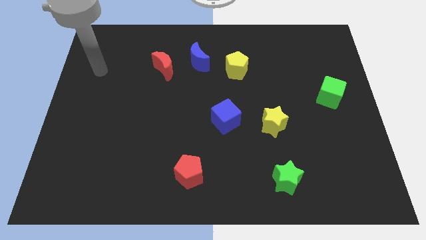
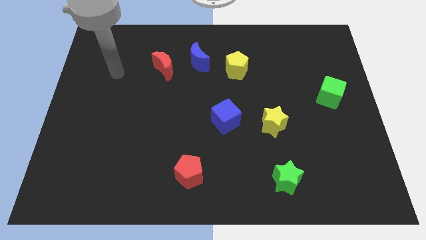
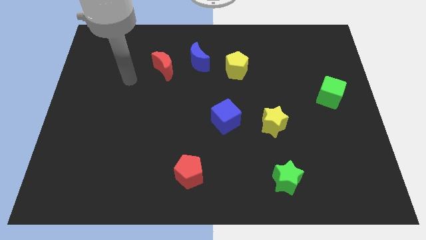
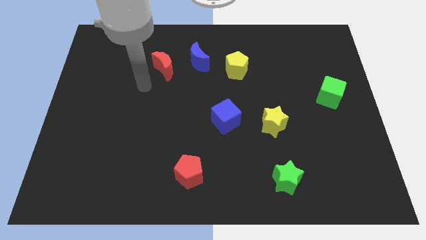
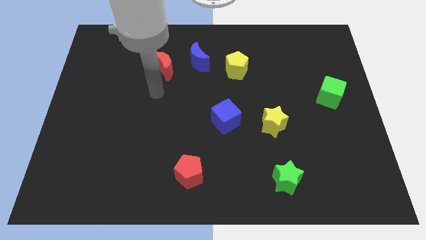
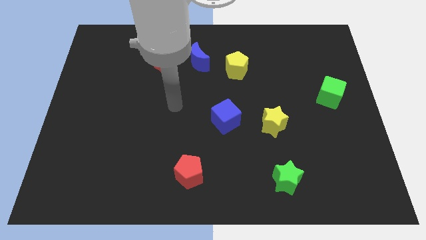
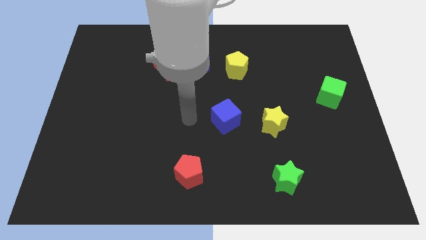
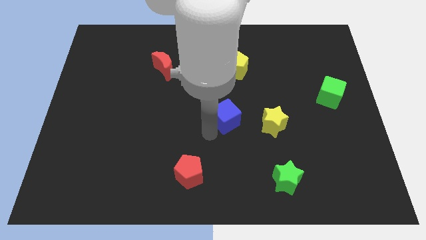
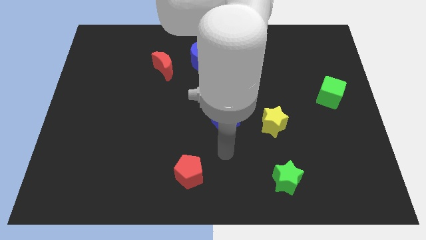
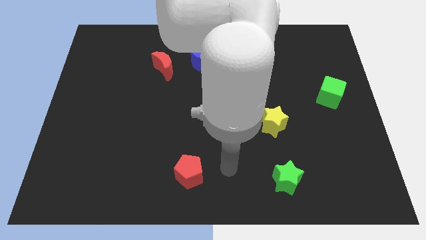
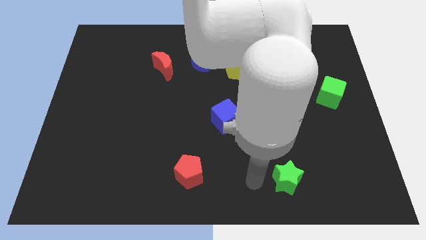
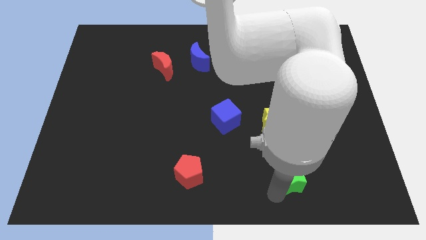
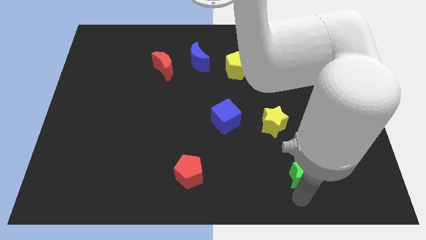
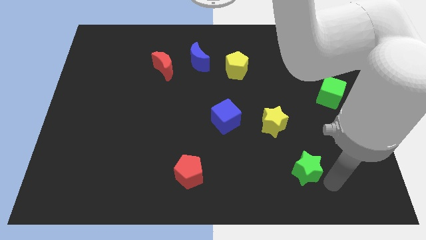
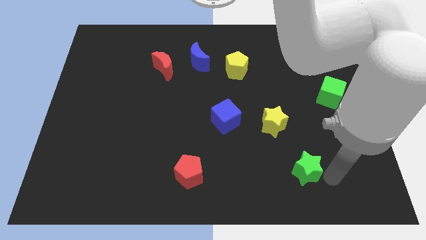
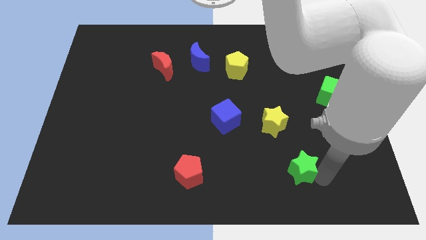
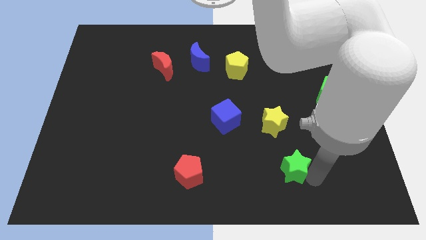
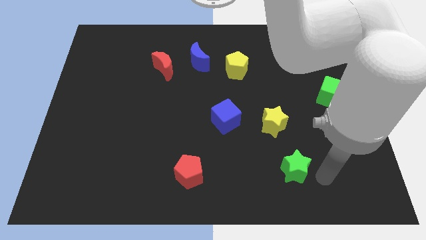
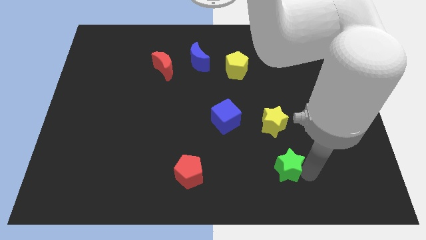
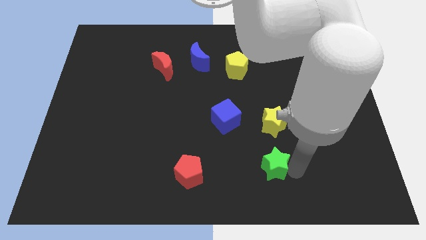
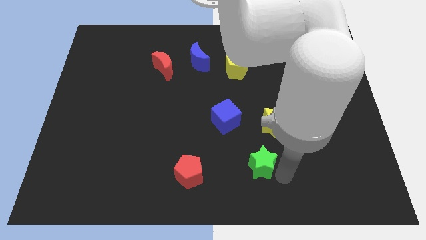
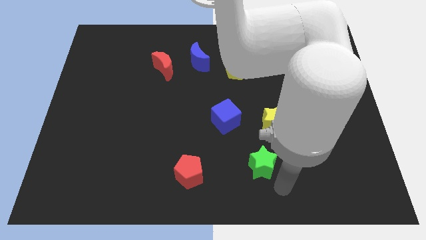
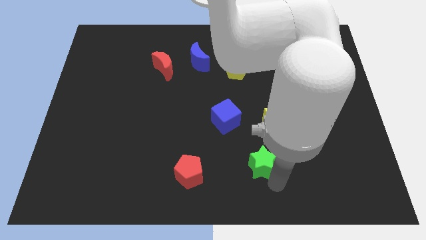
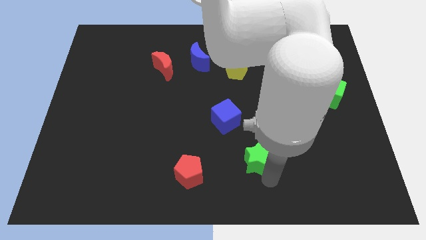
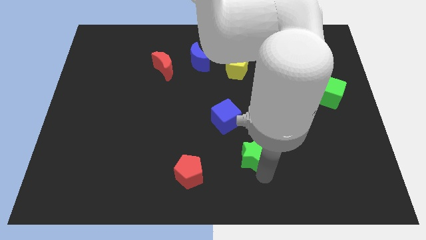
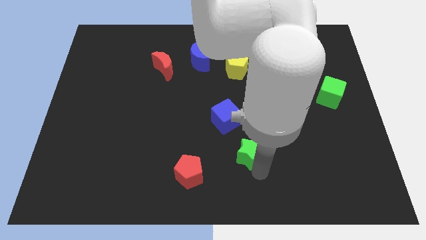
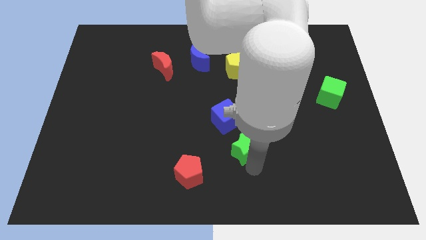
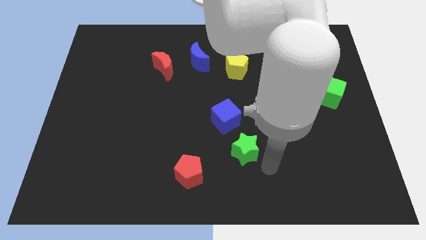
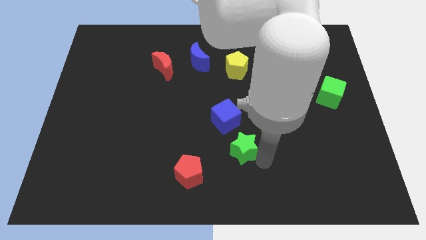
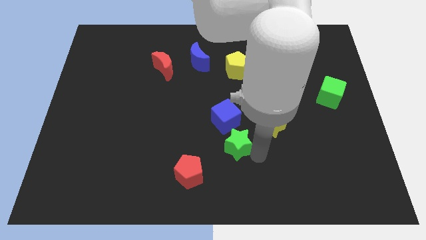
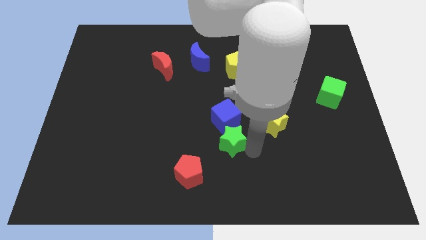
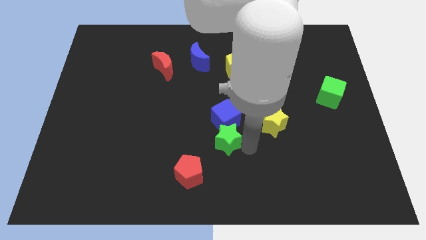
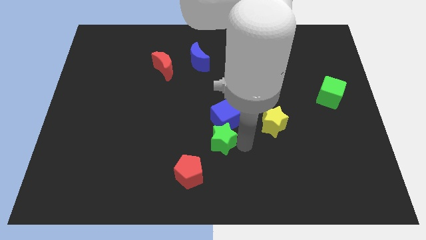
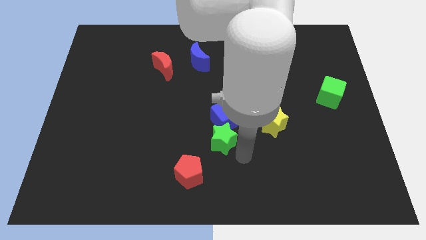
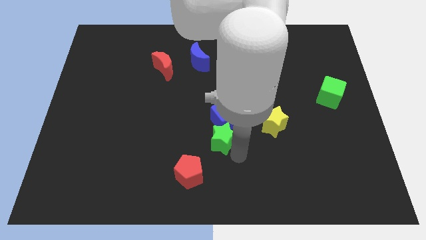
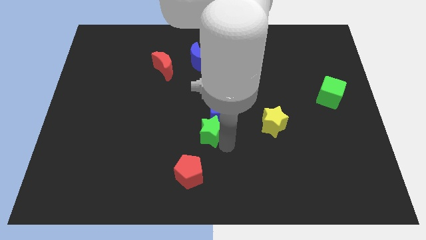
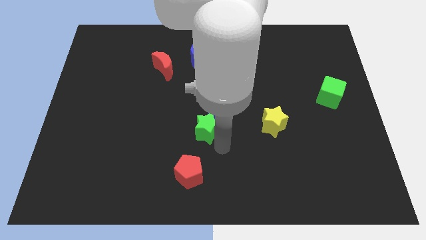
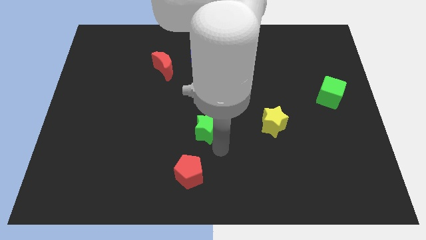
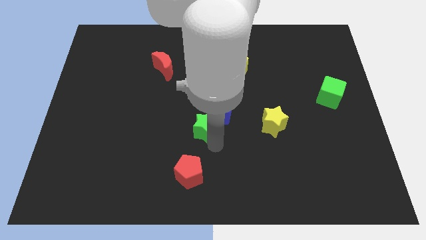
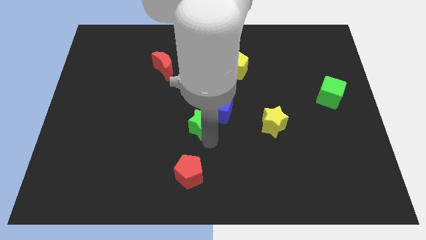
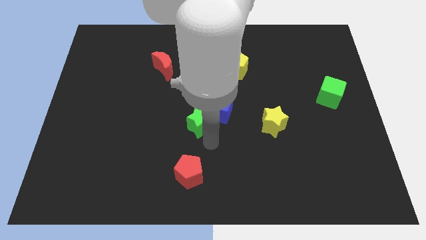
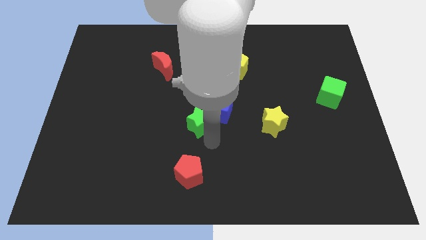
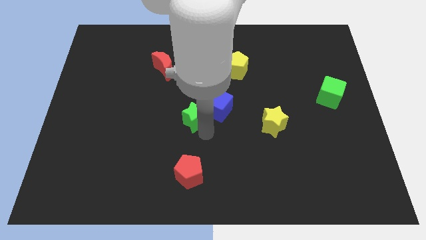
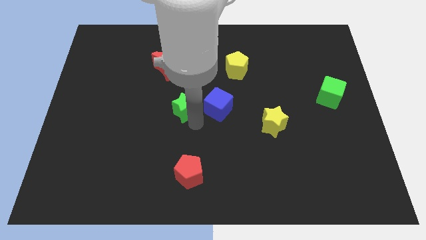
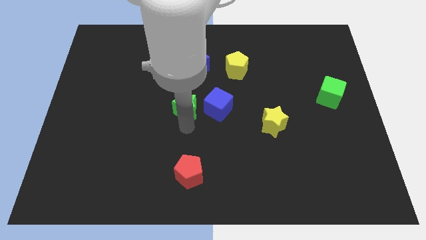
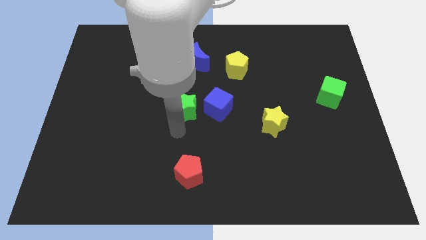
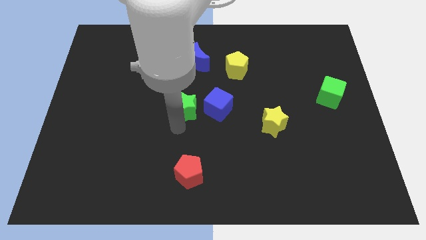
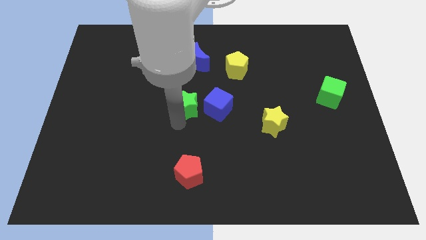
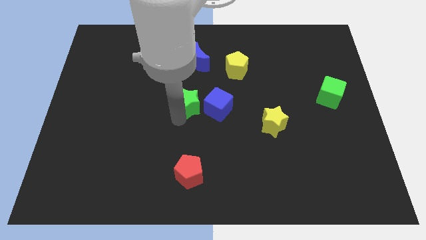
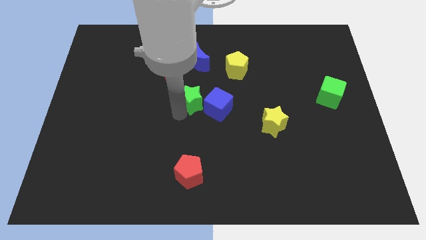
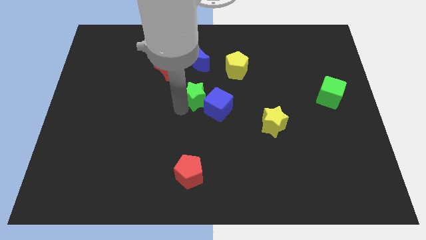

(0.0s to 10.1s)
push the green star to the bottom right side of the red moon

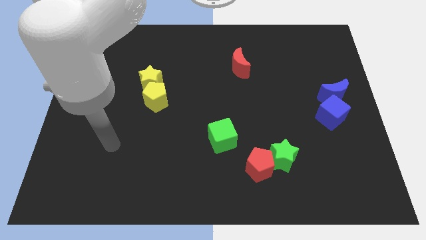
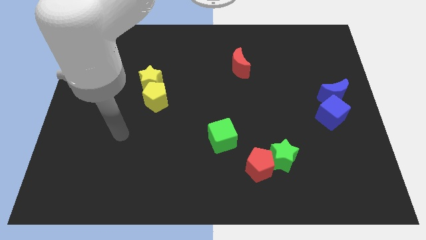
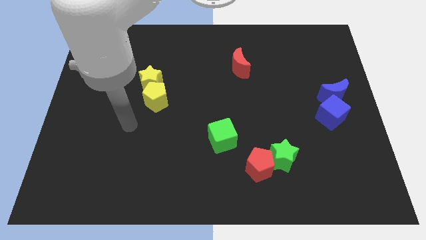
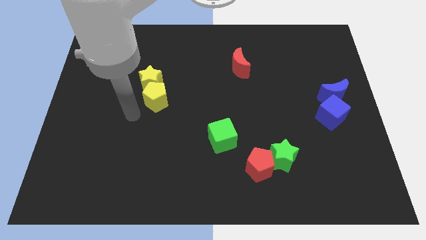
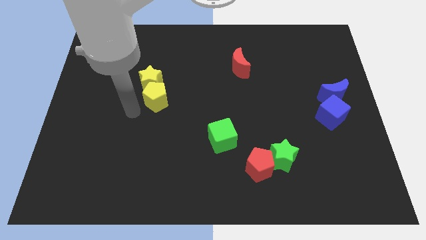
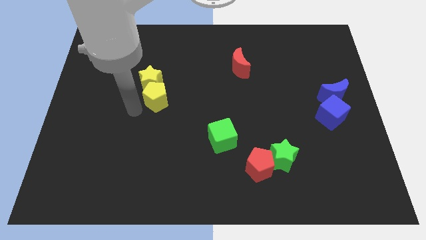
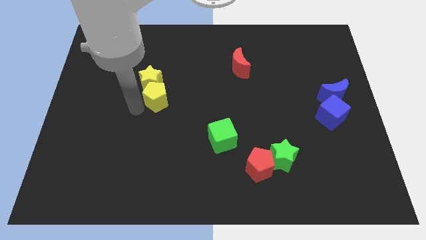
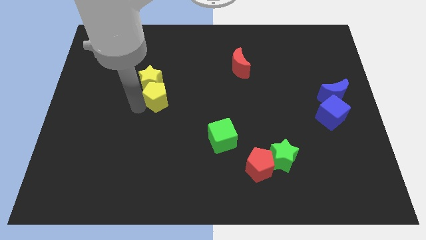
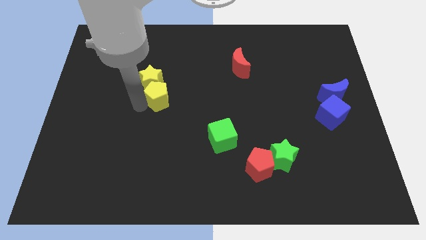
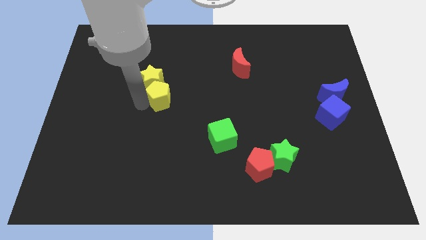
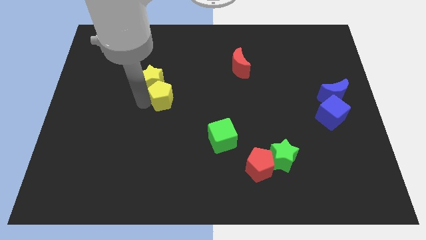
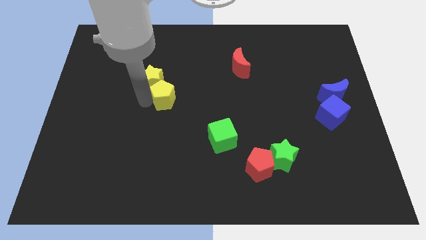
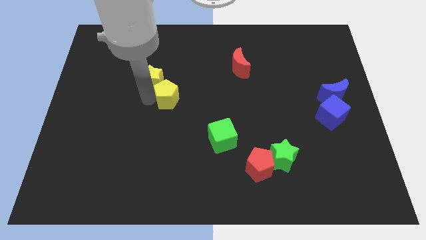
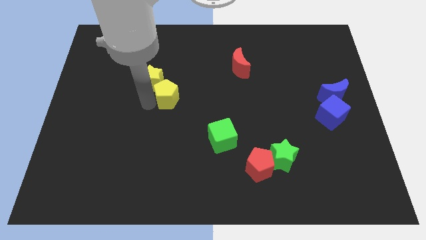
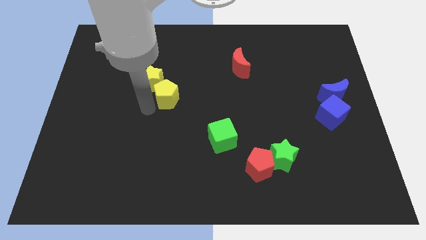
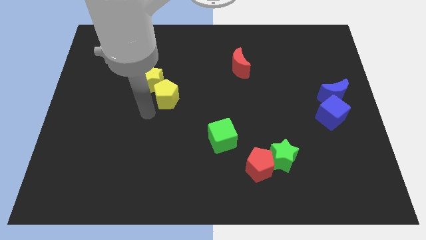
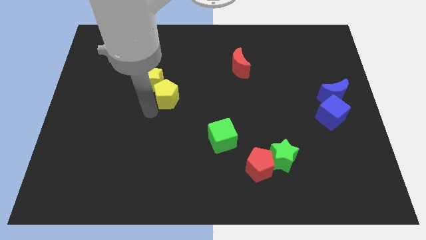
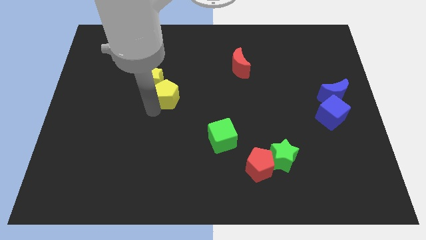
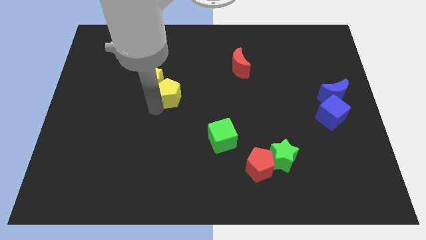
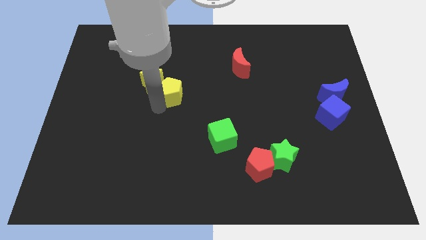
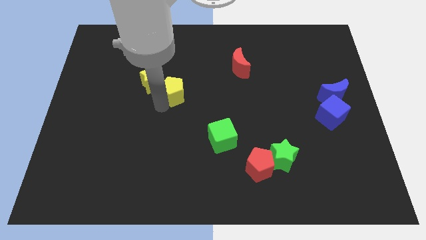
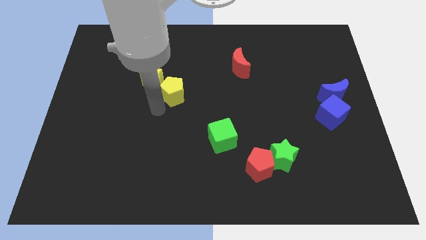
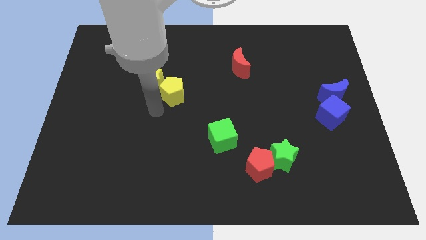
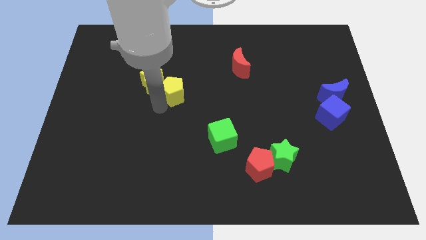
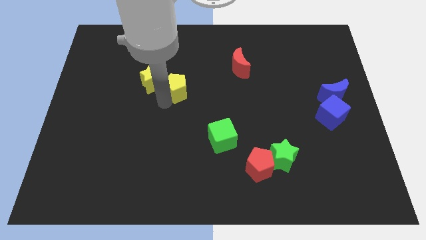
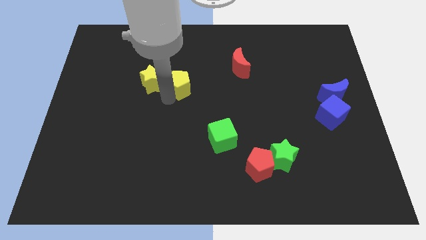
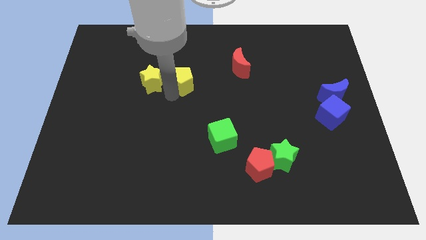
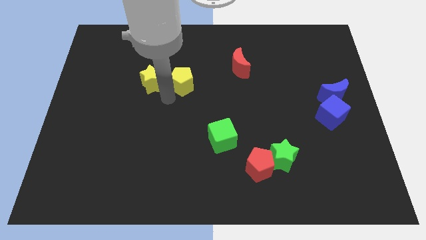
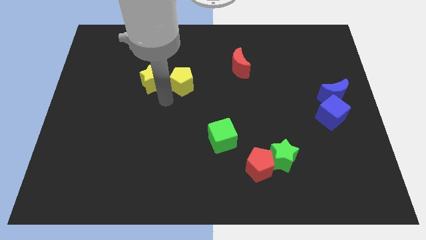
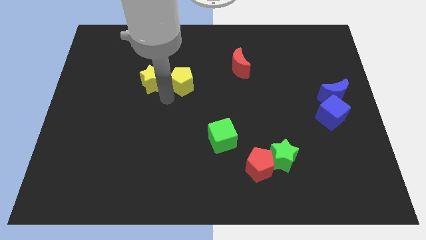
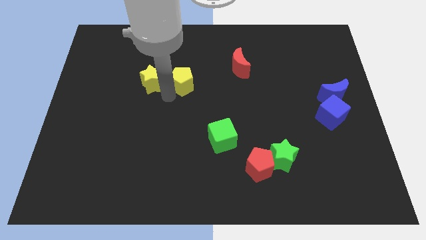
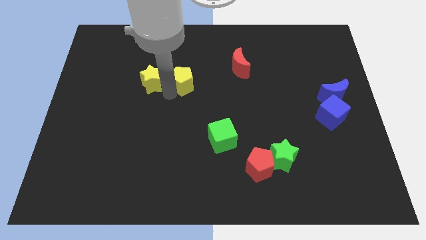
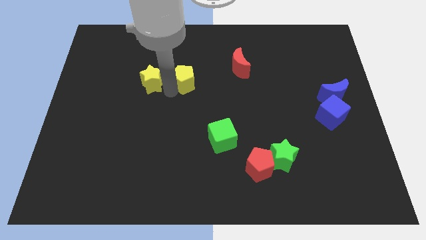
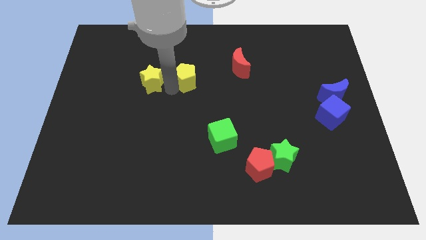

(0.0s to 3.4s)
push the yellow pentagon to the left of the red moon
